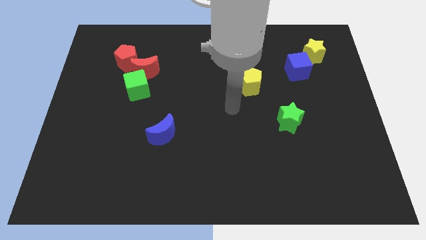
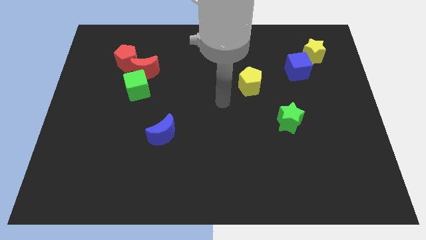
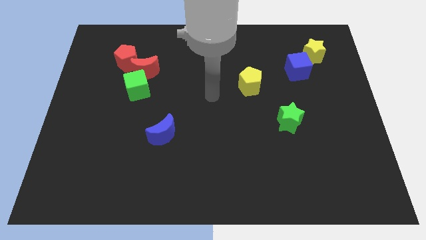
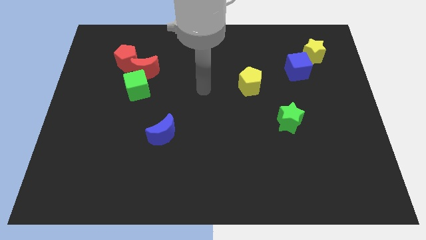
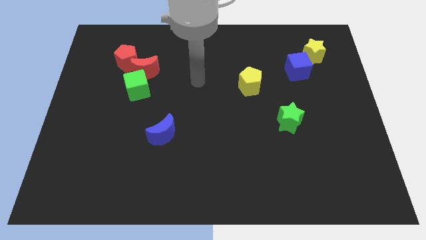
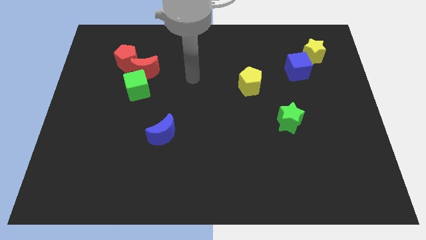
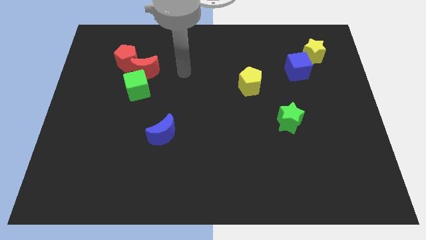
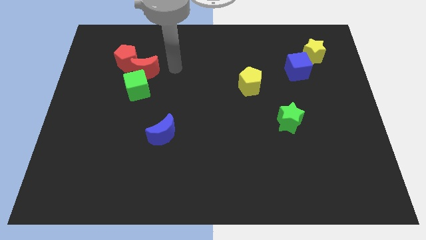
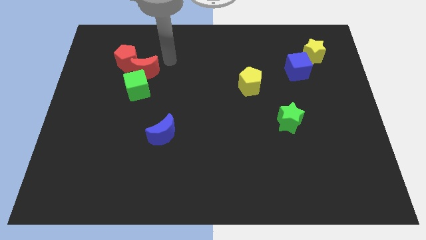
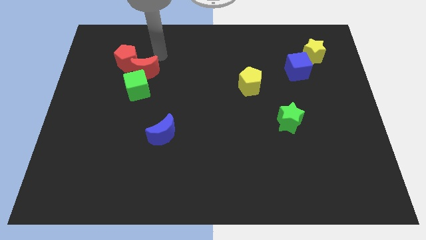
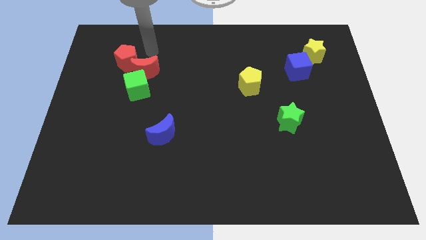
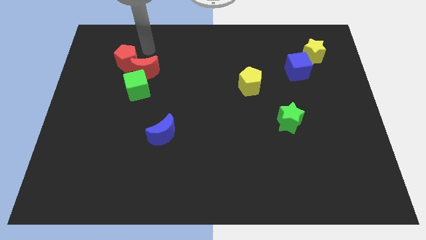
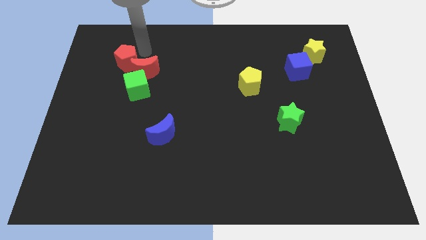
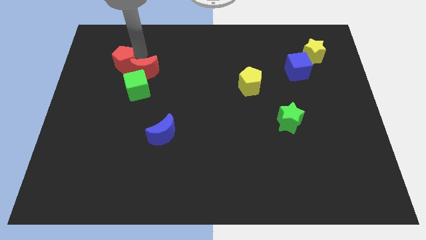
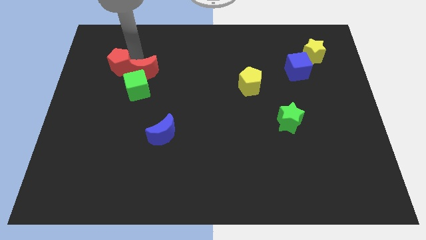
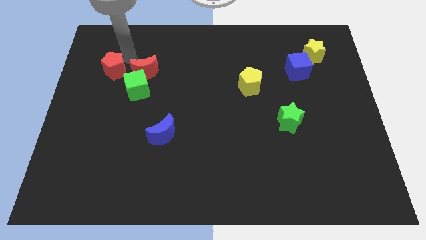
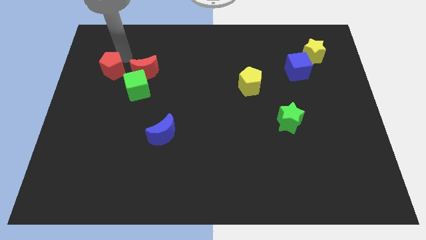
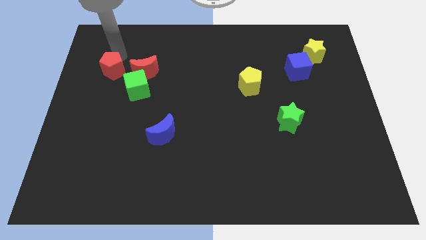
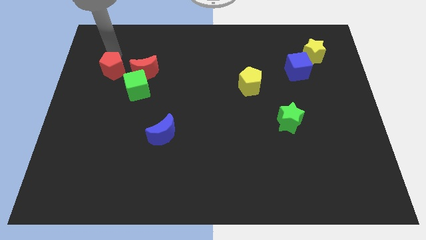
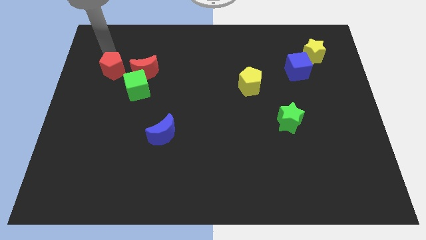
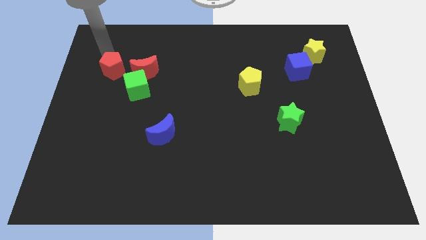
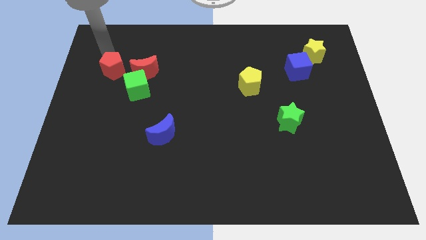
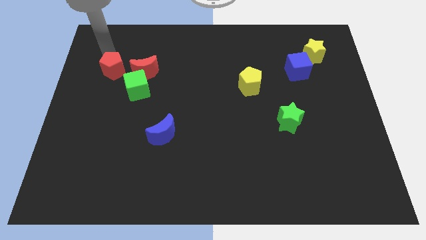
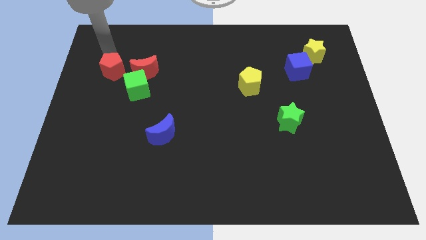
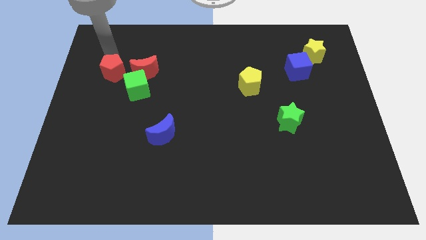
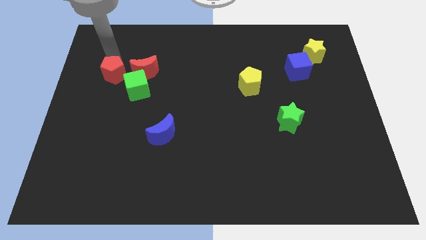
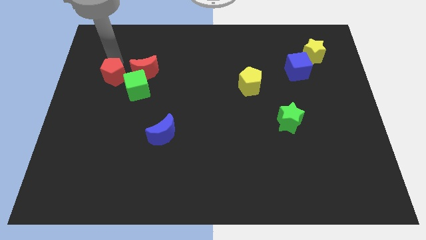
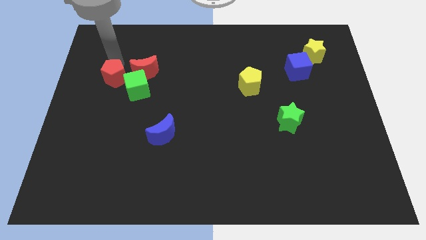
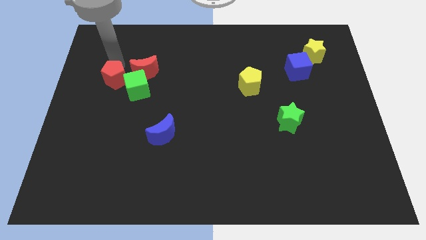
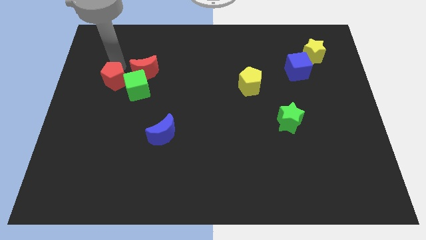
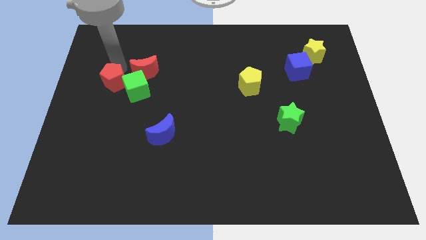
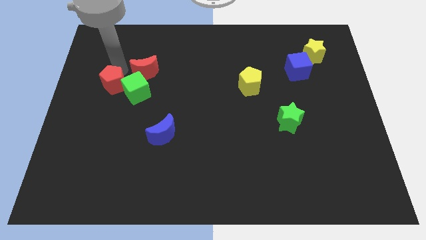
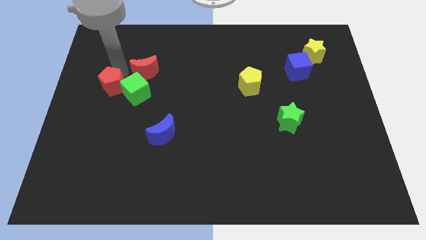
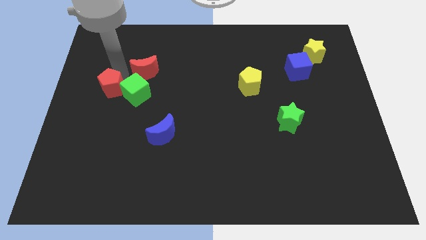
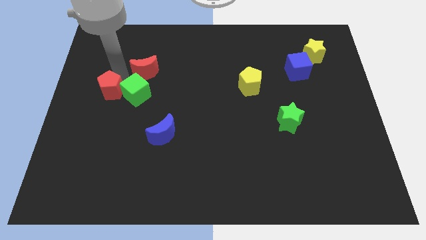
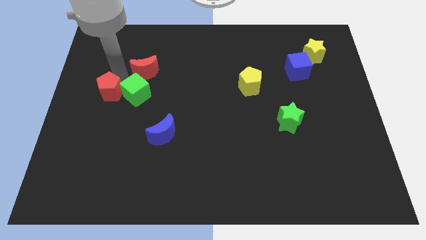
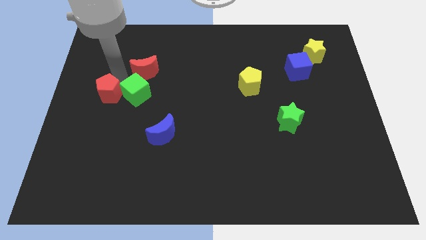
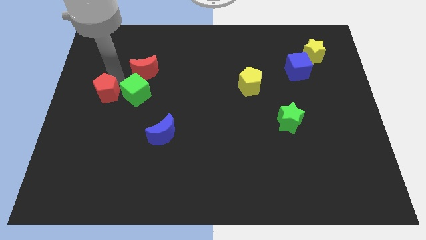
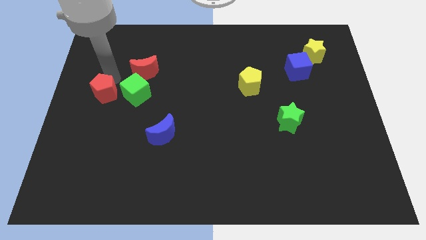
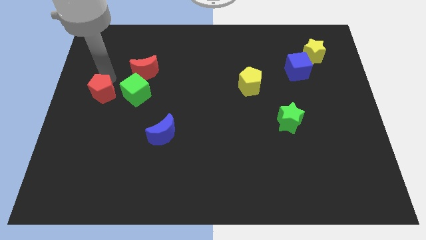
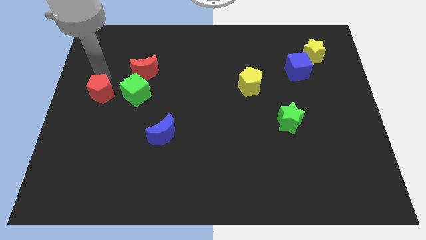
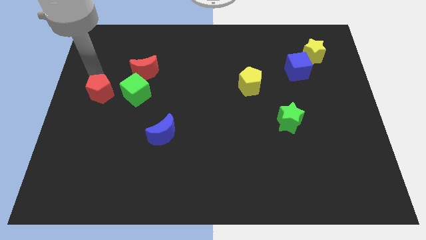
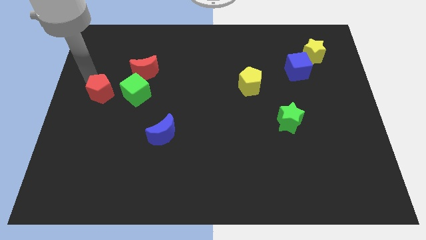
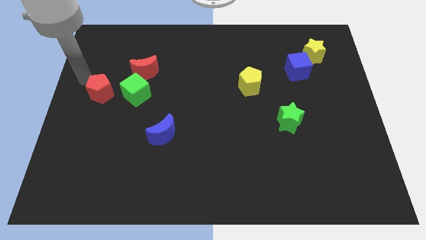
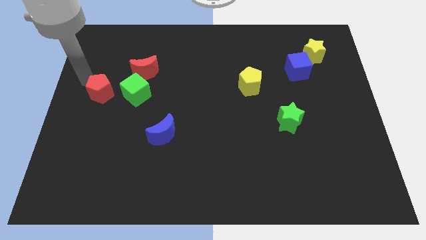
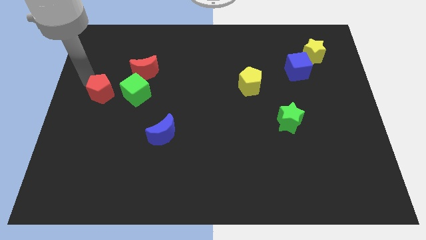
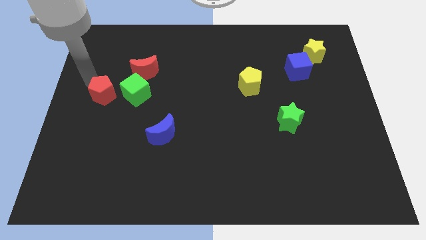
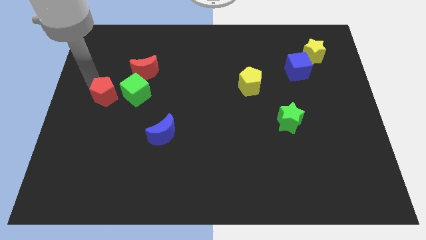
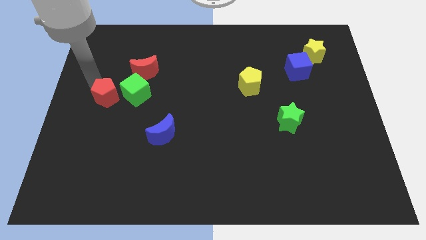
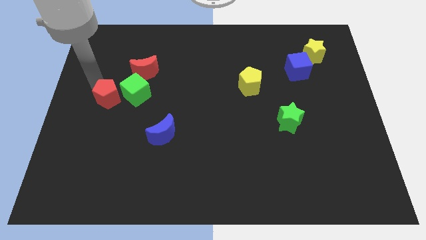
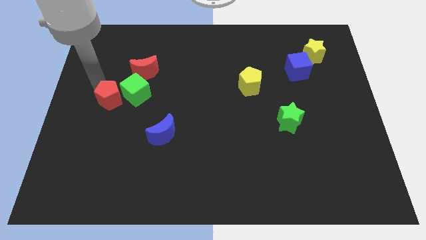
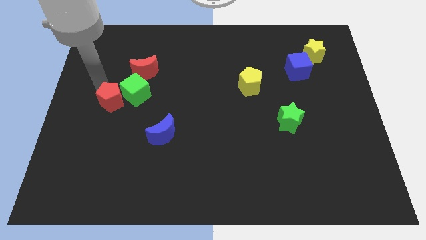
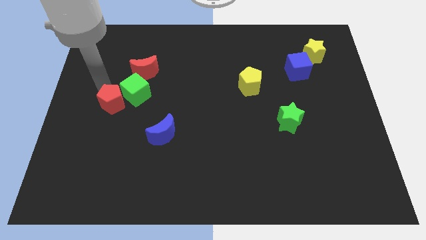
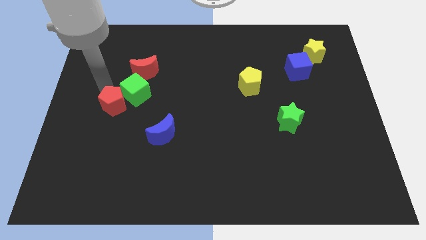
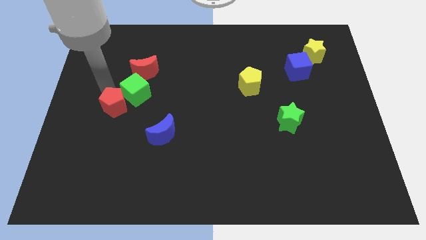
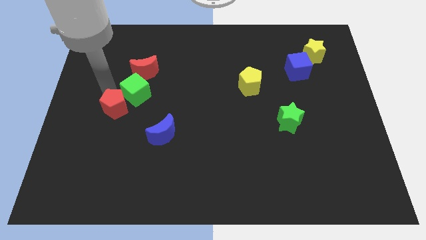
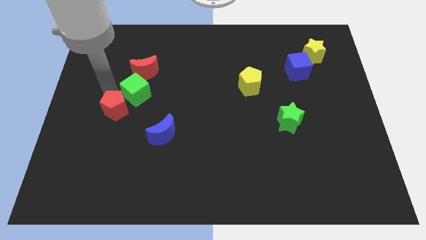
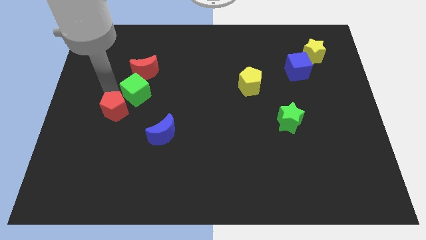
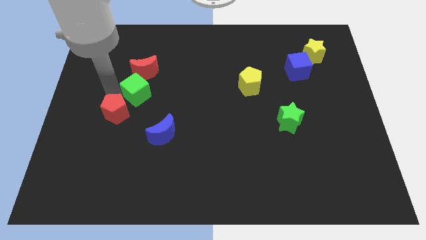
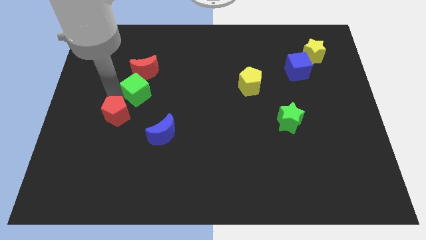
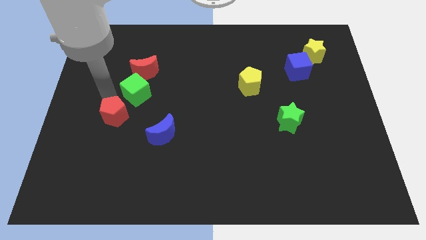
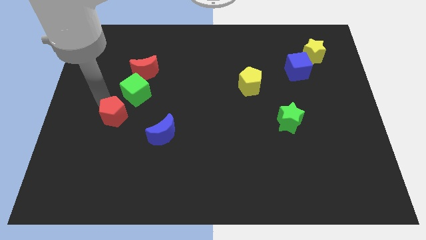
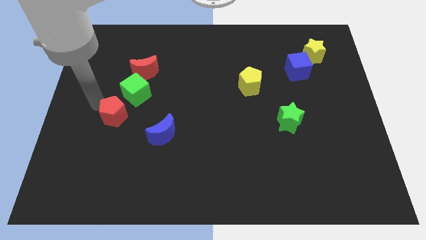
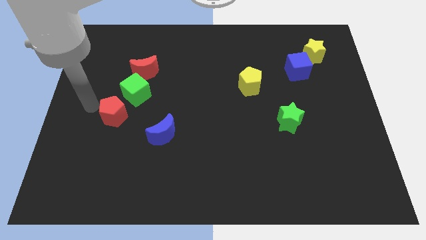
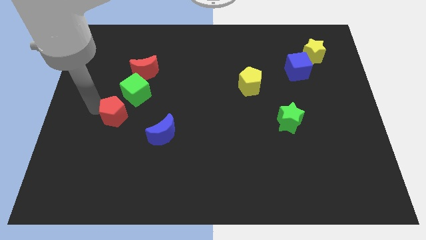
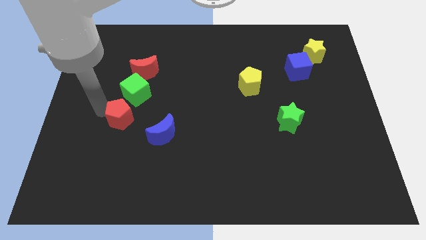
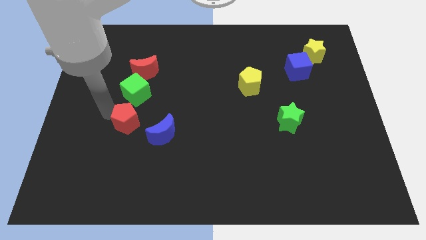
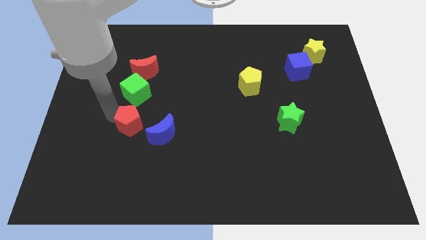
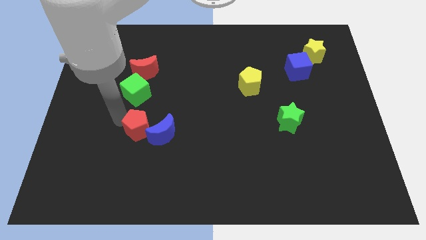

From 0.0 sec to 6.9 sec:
push the red pentagon next to the blue moon

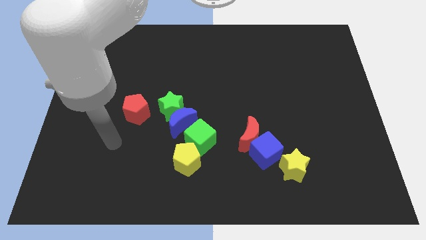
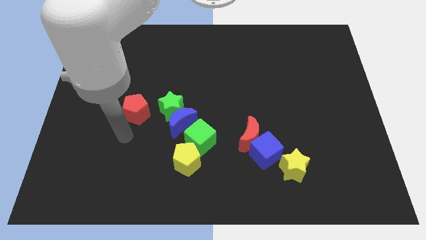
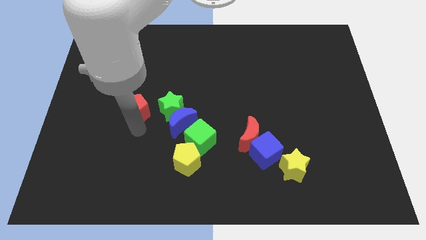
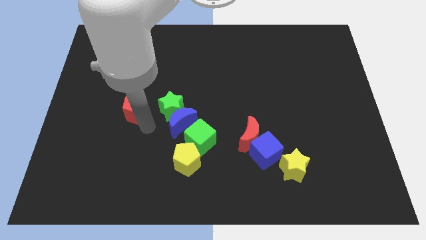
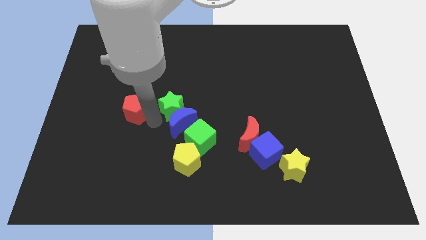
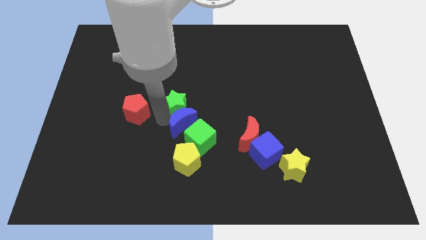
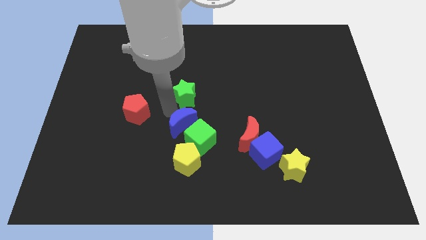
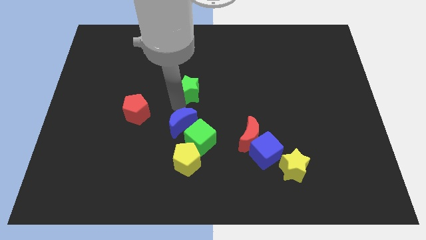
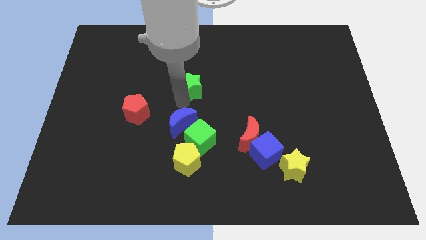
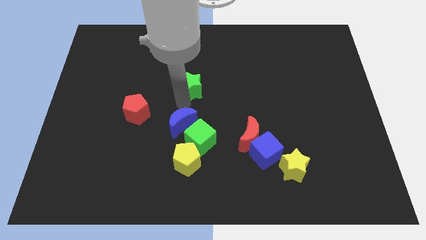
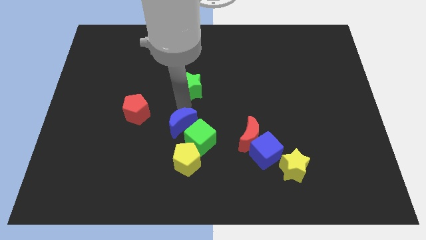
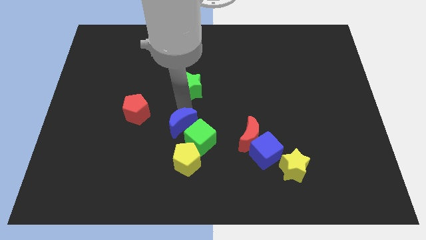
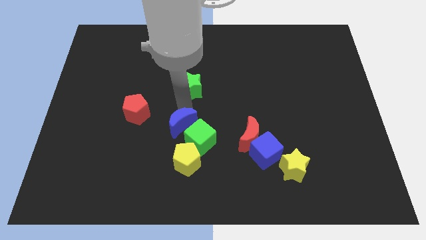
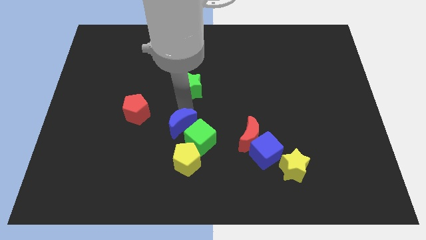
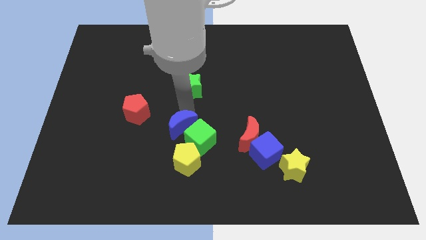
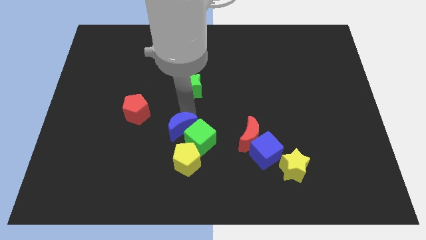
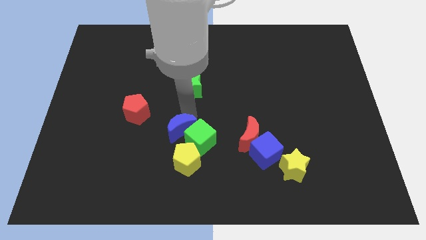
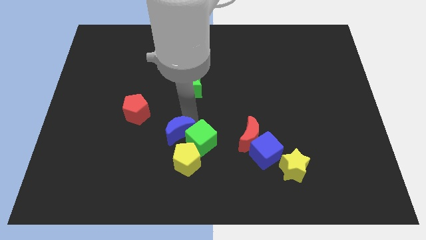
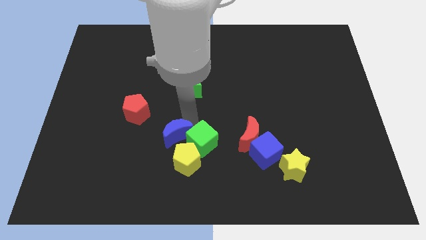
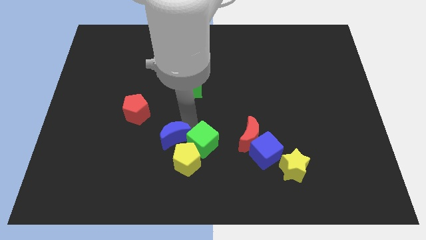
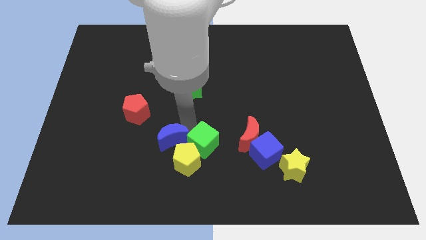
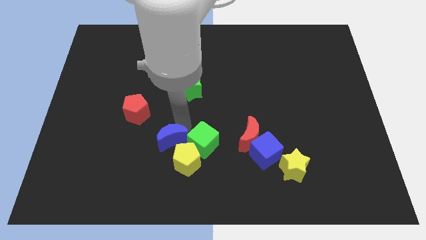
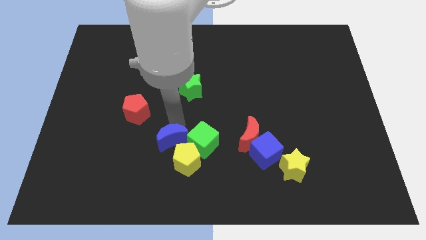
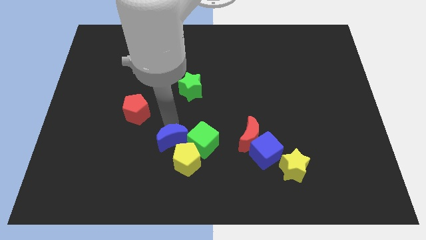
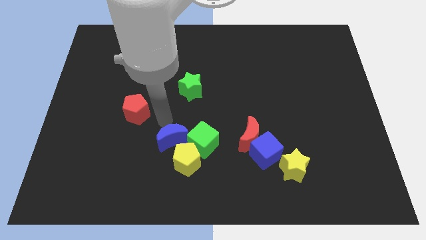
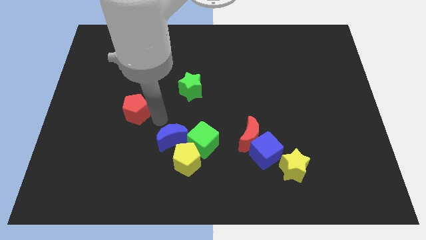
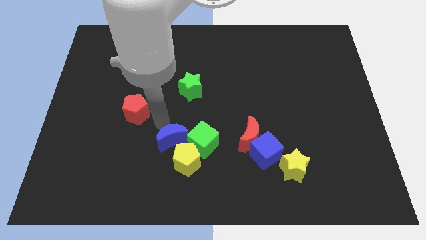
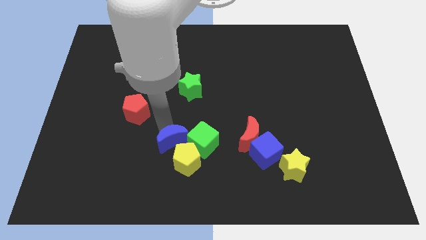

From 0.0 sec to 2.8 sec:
slide the blue moon towards the yellow pentagon
